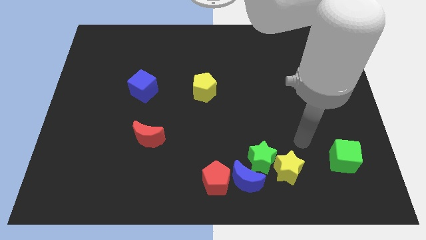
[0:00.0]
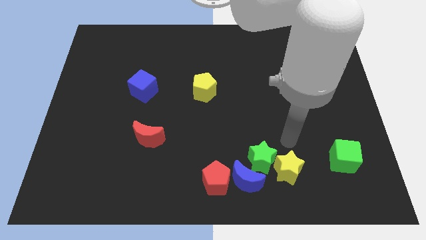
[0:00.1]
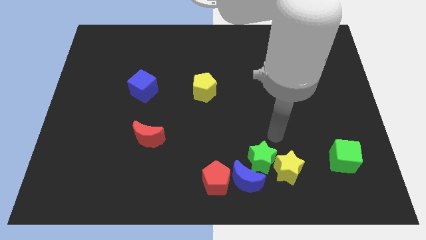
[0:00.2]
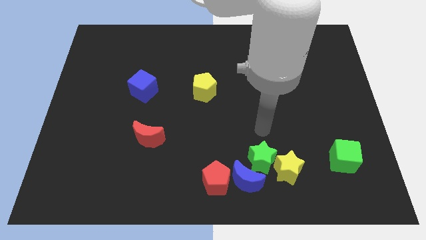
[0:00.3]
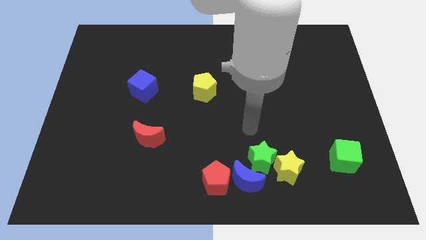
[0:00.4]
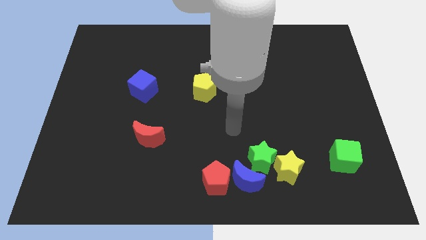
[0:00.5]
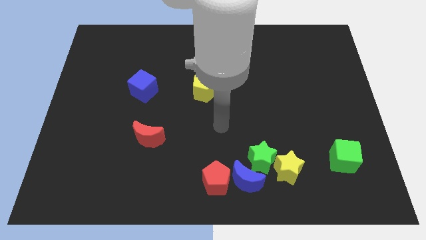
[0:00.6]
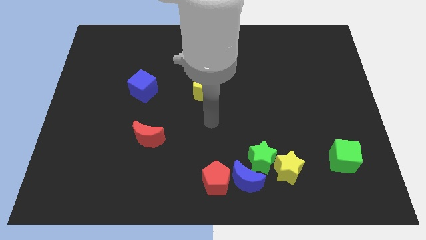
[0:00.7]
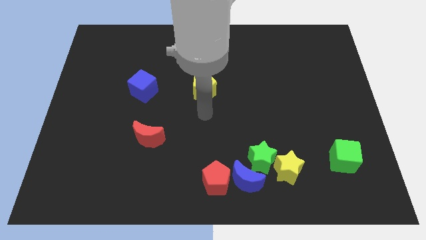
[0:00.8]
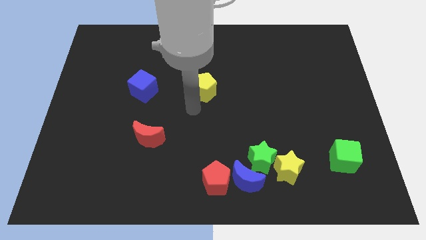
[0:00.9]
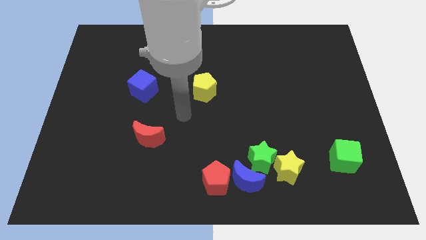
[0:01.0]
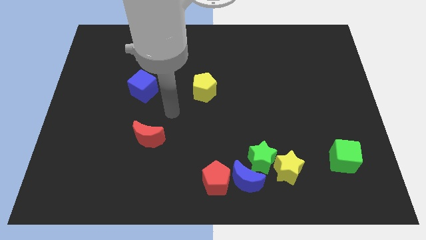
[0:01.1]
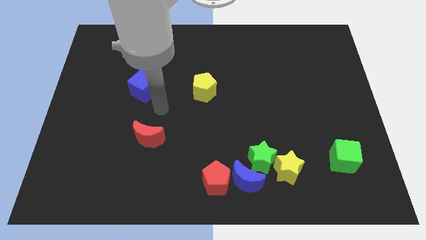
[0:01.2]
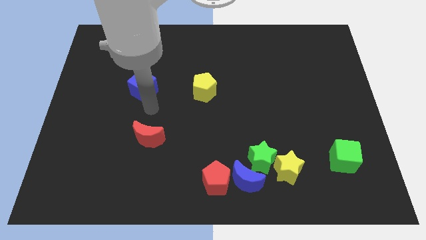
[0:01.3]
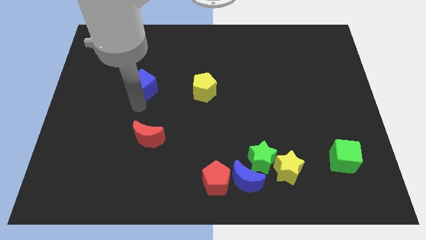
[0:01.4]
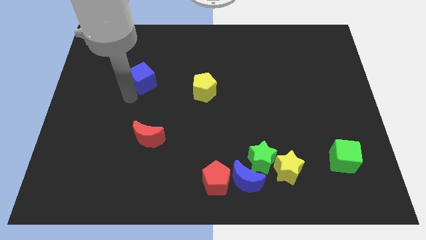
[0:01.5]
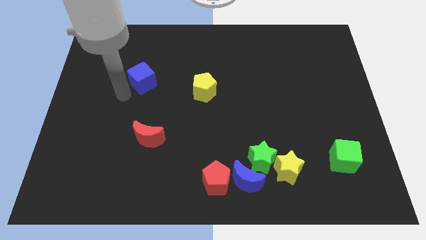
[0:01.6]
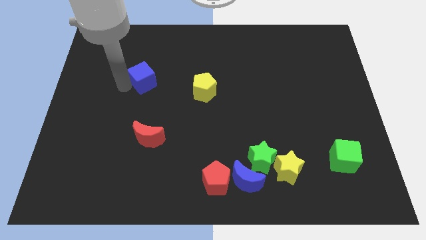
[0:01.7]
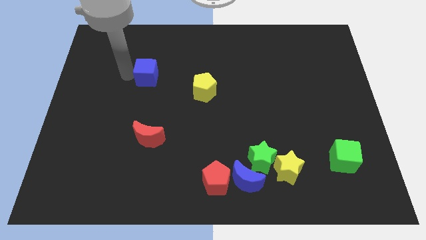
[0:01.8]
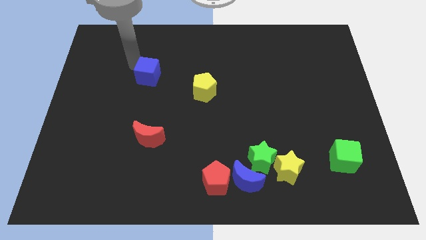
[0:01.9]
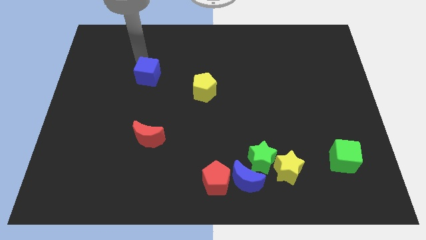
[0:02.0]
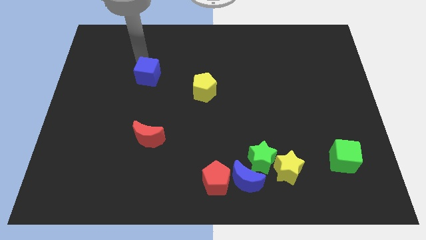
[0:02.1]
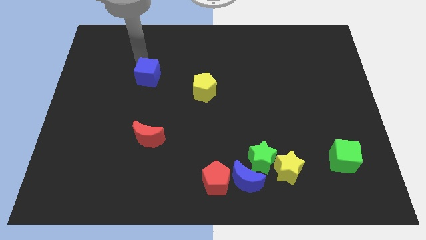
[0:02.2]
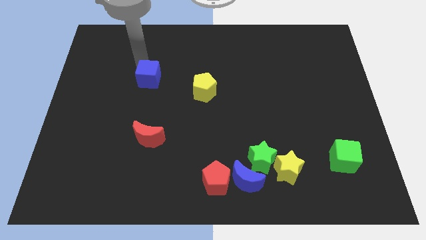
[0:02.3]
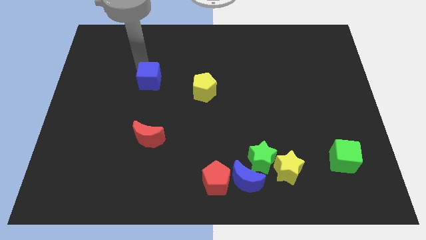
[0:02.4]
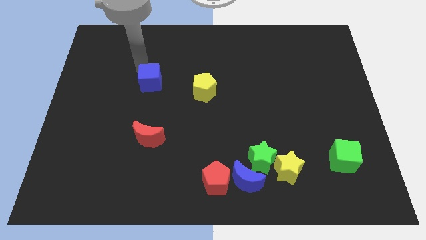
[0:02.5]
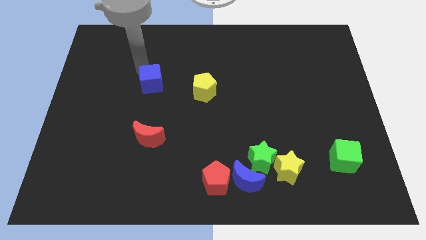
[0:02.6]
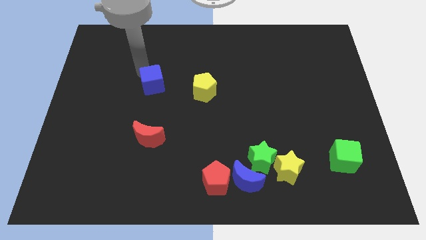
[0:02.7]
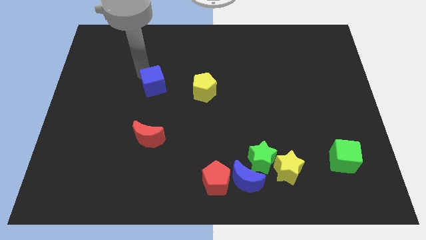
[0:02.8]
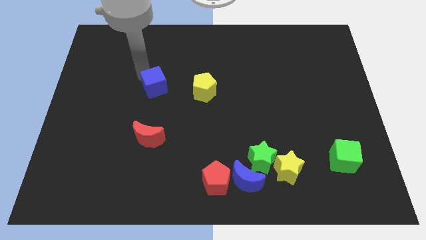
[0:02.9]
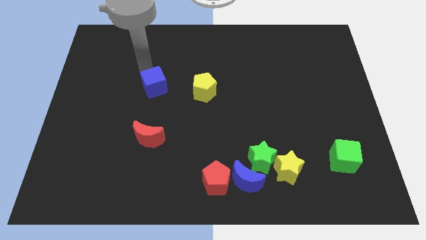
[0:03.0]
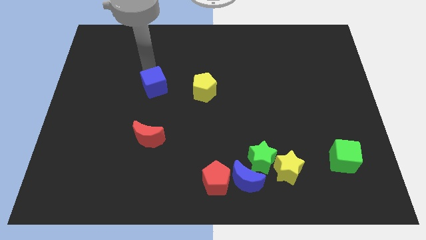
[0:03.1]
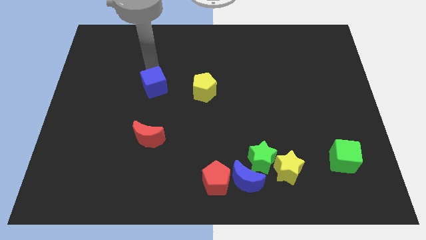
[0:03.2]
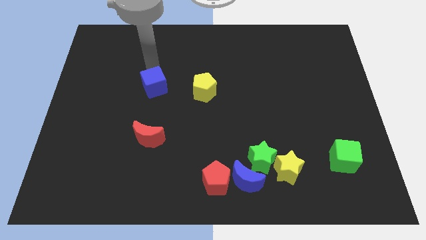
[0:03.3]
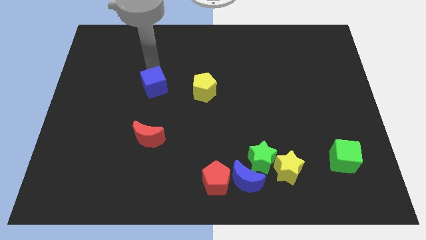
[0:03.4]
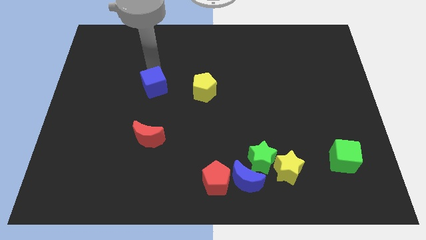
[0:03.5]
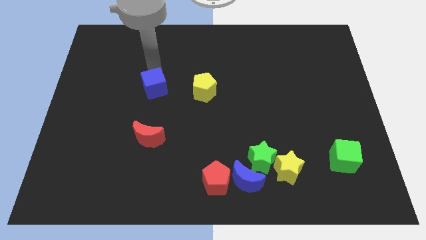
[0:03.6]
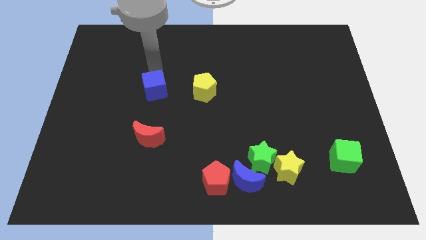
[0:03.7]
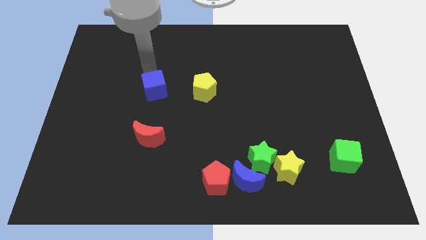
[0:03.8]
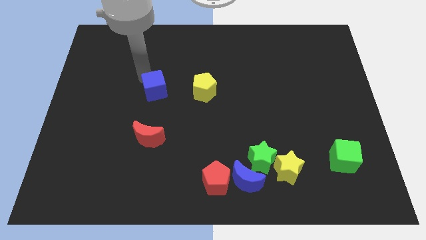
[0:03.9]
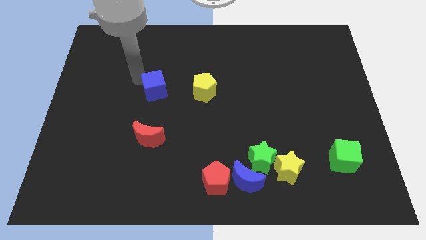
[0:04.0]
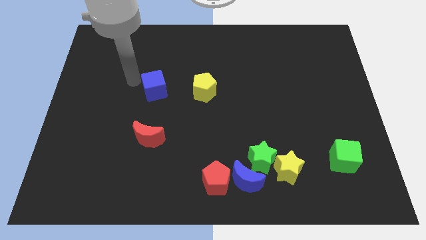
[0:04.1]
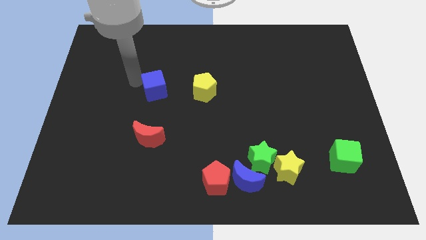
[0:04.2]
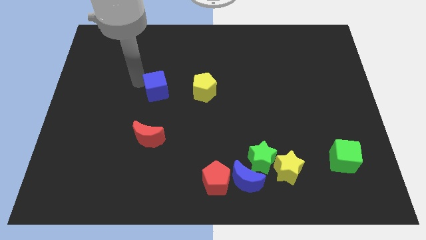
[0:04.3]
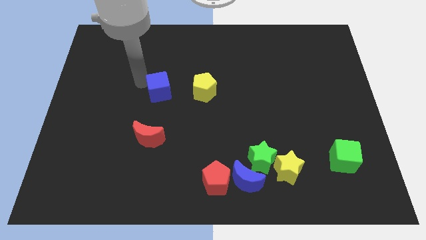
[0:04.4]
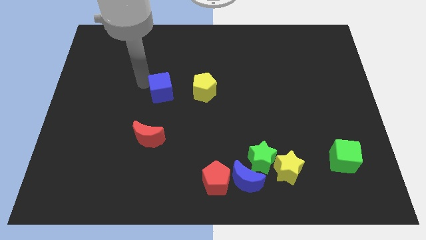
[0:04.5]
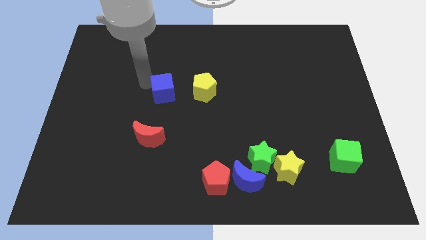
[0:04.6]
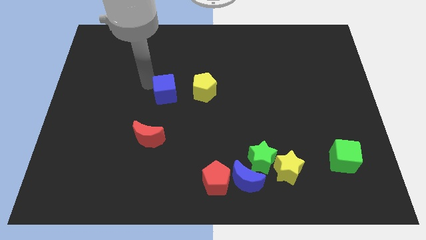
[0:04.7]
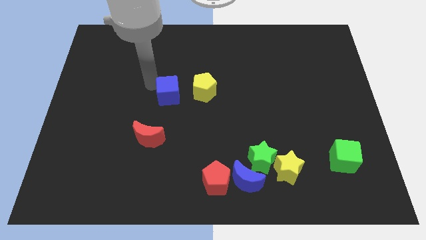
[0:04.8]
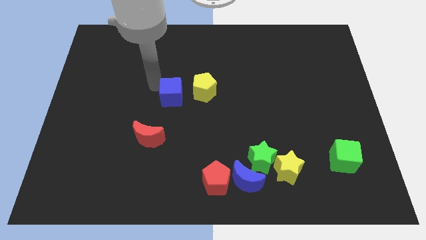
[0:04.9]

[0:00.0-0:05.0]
move the blue cube a bit right

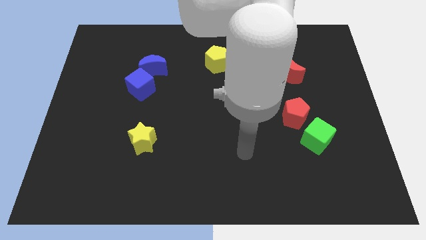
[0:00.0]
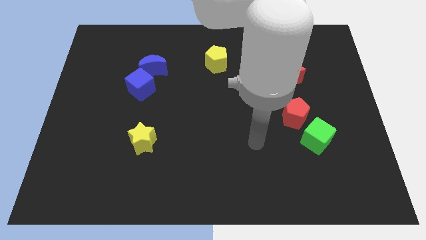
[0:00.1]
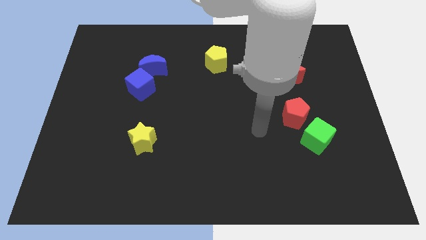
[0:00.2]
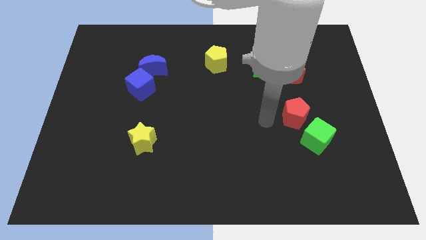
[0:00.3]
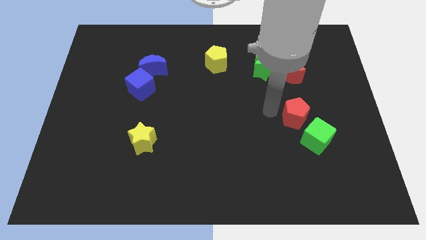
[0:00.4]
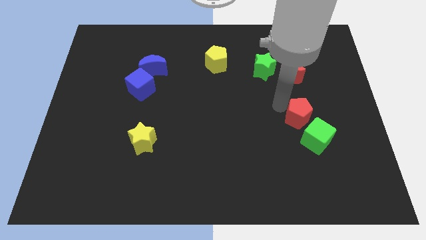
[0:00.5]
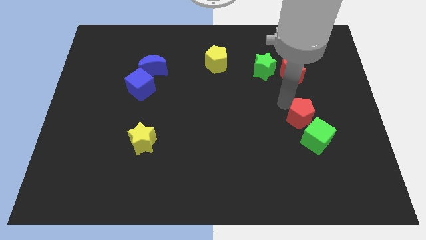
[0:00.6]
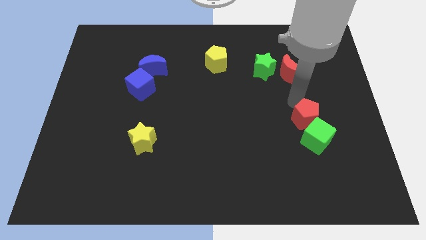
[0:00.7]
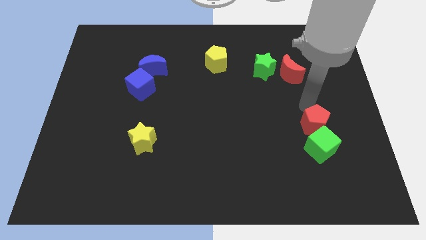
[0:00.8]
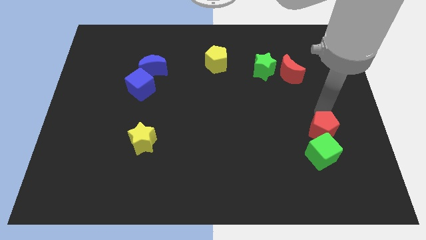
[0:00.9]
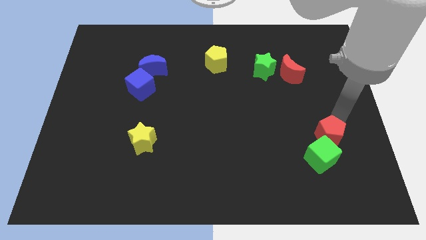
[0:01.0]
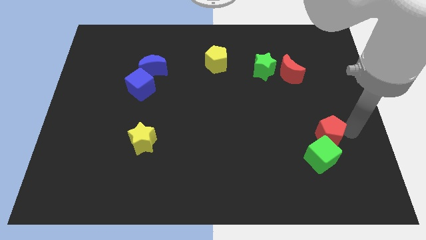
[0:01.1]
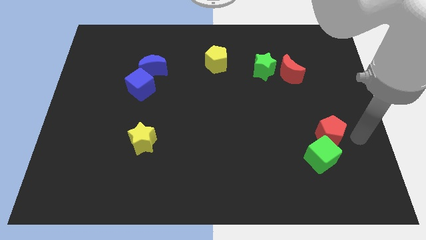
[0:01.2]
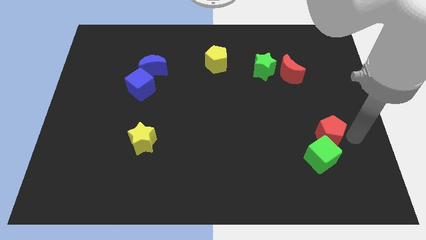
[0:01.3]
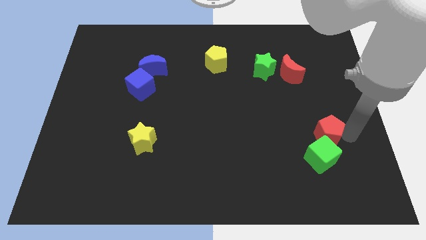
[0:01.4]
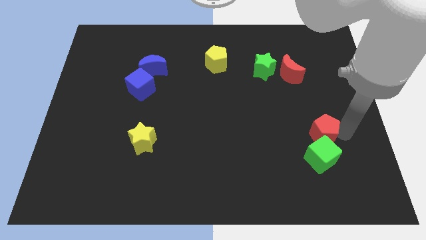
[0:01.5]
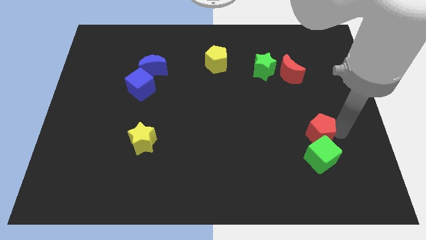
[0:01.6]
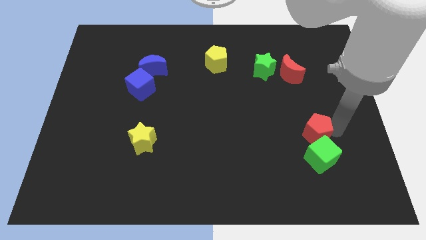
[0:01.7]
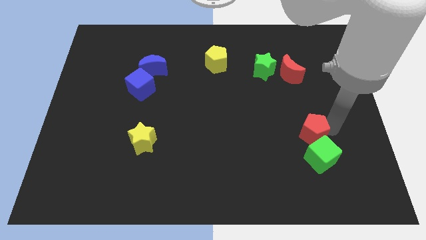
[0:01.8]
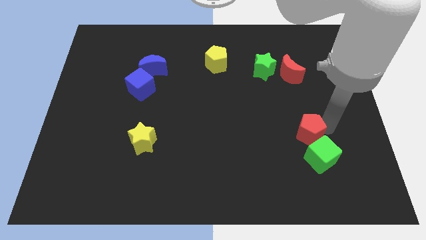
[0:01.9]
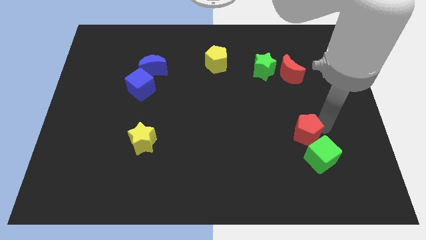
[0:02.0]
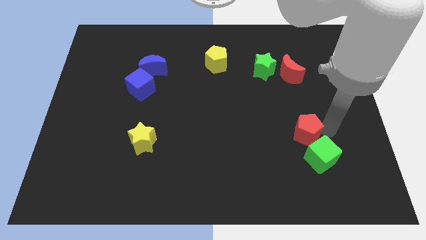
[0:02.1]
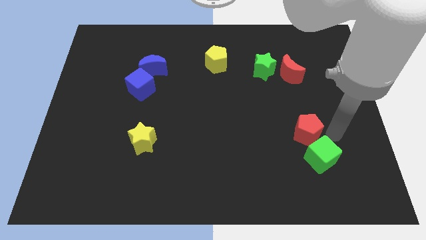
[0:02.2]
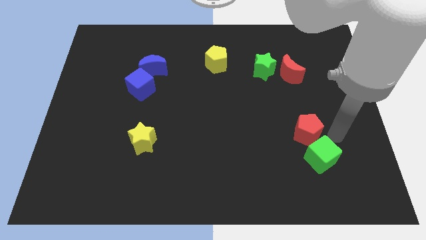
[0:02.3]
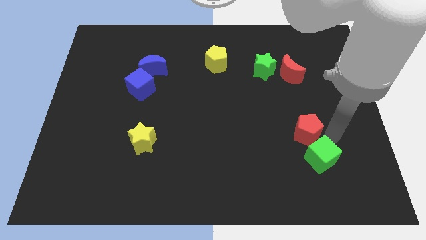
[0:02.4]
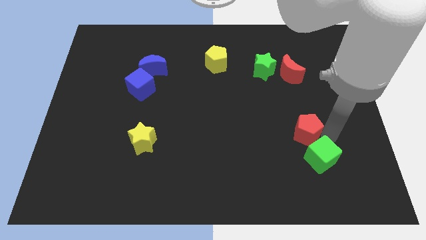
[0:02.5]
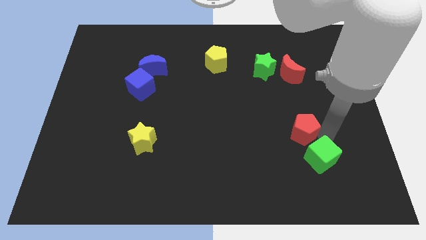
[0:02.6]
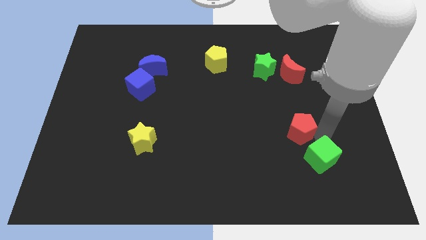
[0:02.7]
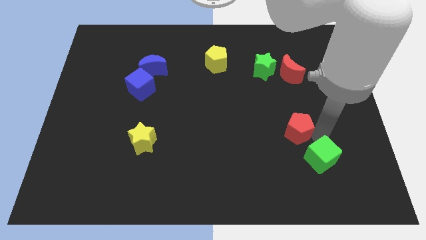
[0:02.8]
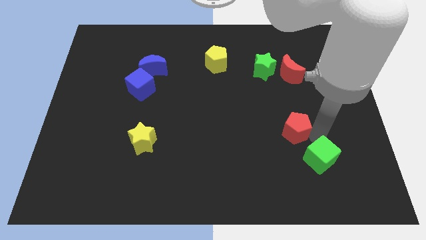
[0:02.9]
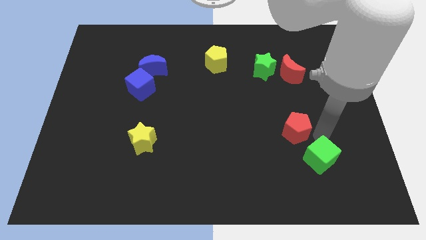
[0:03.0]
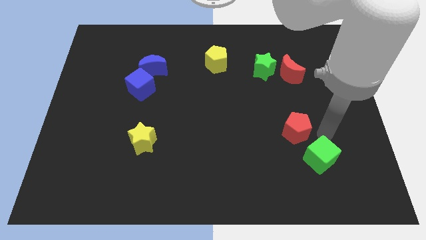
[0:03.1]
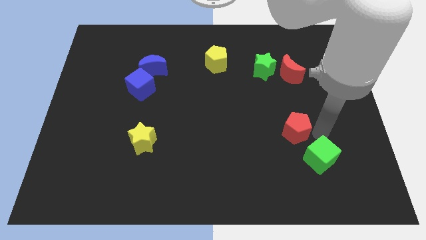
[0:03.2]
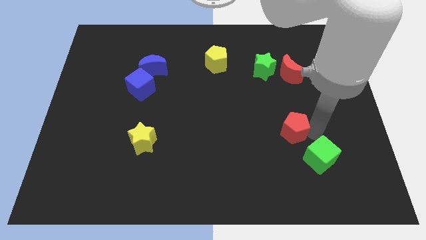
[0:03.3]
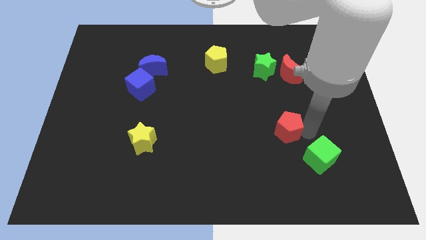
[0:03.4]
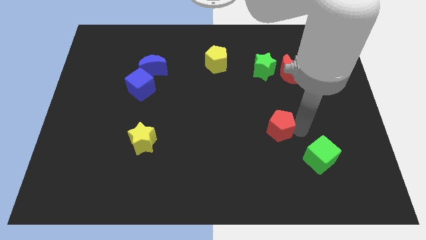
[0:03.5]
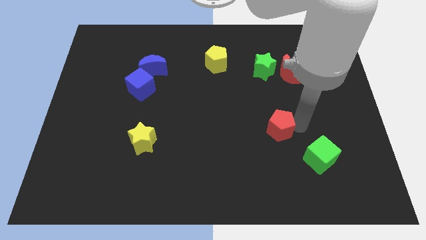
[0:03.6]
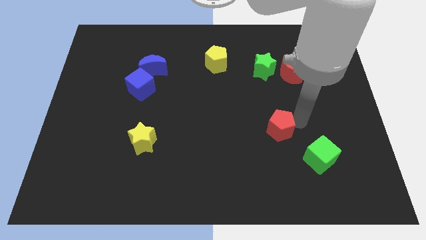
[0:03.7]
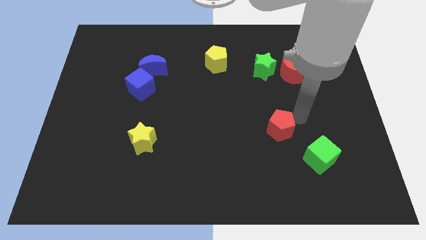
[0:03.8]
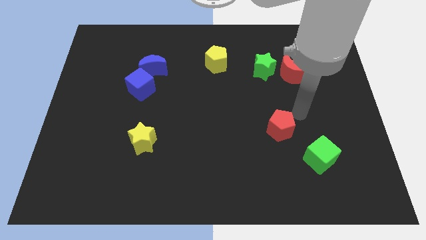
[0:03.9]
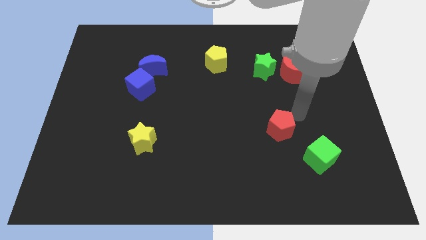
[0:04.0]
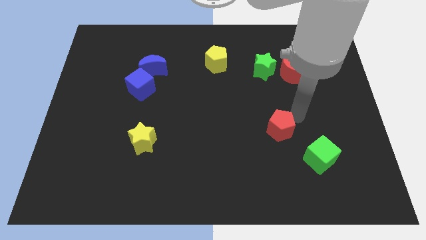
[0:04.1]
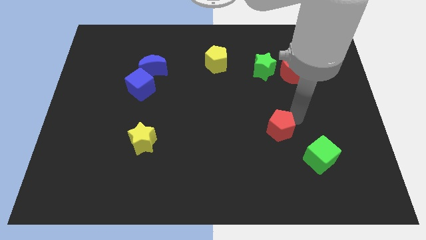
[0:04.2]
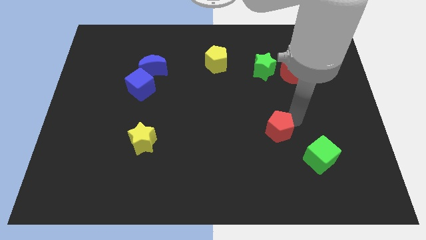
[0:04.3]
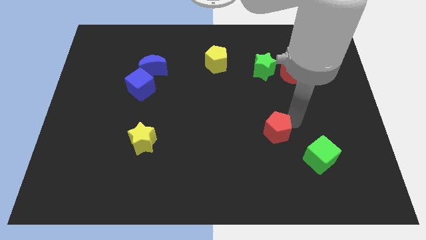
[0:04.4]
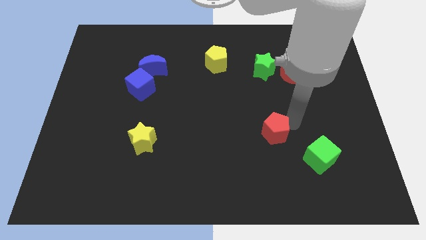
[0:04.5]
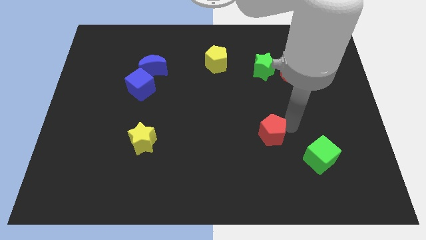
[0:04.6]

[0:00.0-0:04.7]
push the red pentagon diagonally downwards and left a bit
